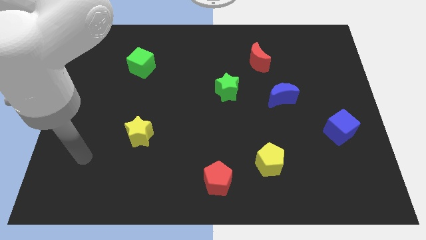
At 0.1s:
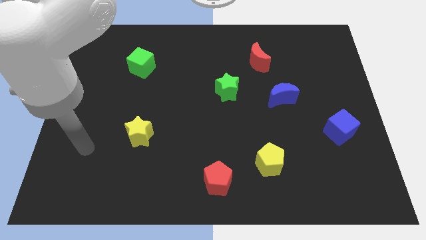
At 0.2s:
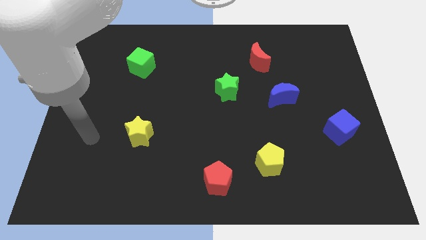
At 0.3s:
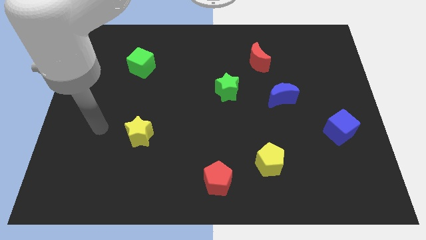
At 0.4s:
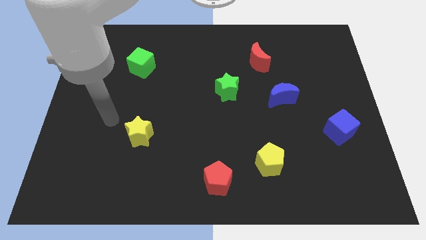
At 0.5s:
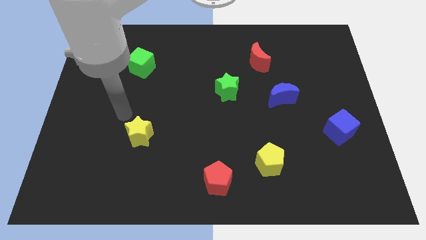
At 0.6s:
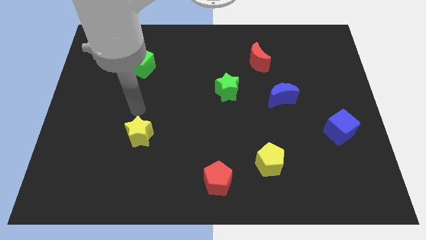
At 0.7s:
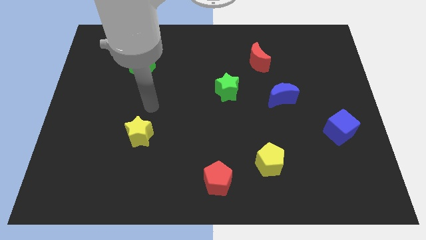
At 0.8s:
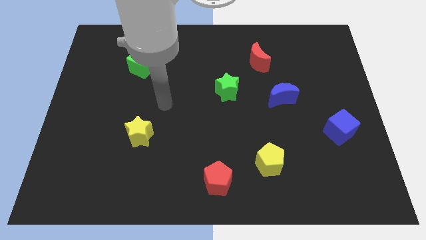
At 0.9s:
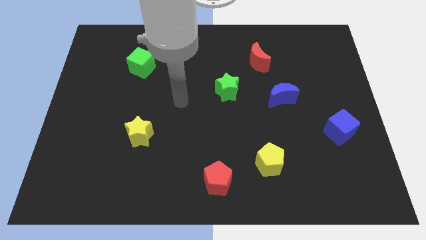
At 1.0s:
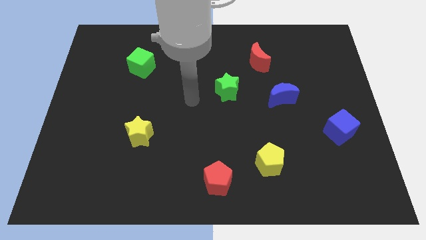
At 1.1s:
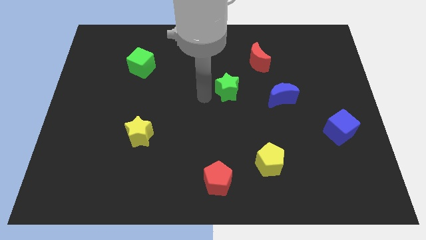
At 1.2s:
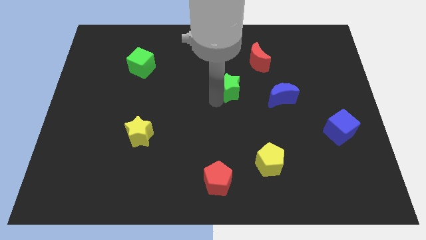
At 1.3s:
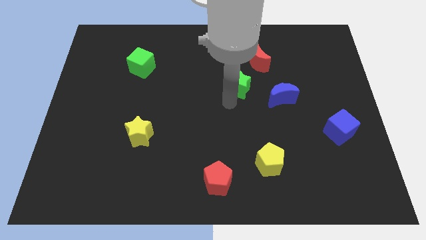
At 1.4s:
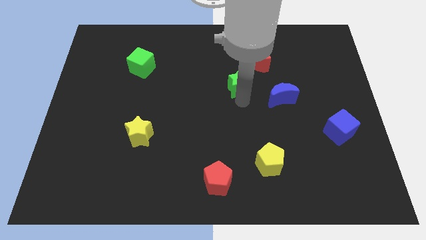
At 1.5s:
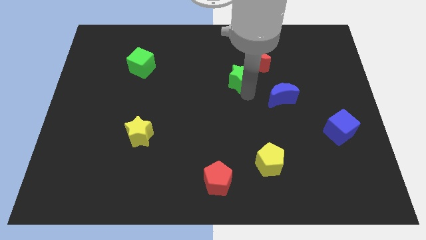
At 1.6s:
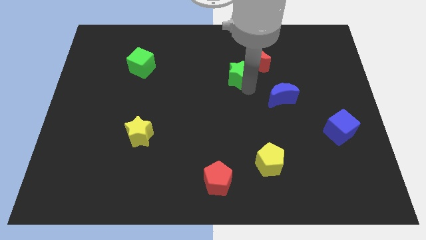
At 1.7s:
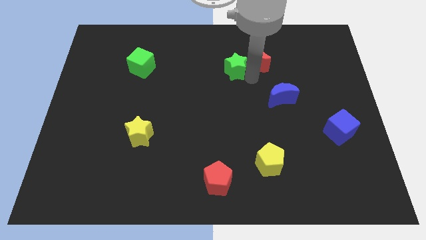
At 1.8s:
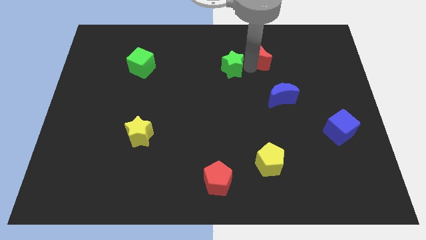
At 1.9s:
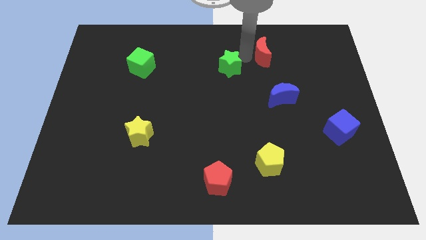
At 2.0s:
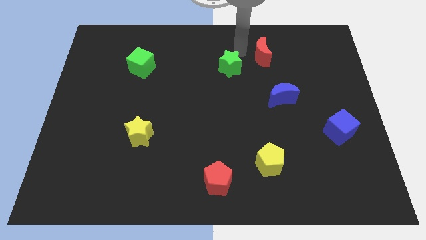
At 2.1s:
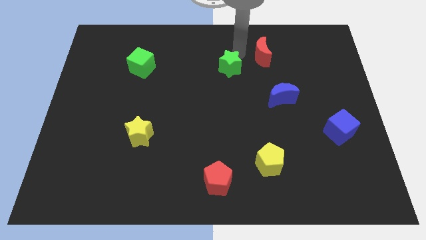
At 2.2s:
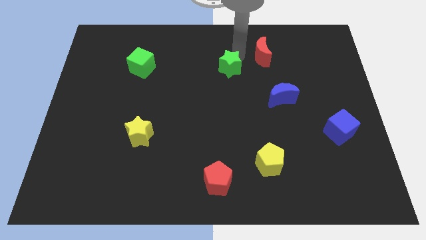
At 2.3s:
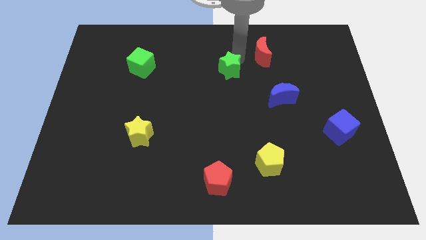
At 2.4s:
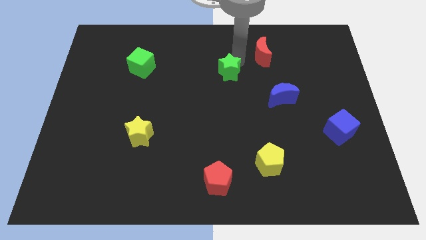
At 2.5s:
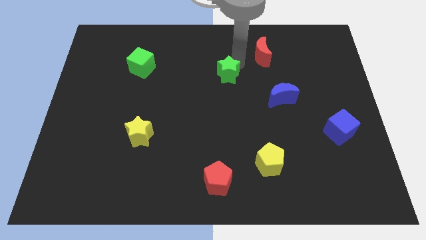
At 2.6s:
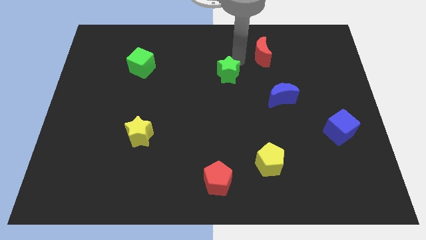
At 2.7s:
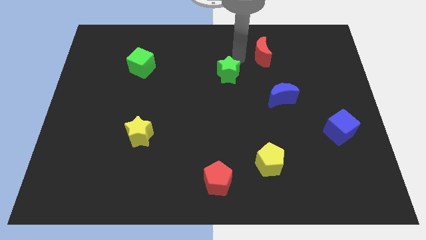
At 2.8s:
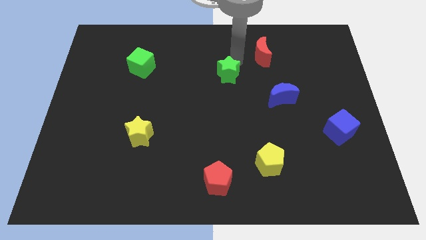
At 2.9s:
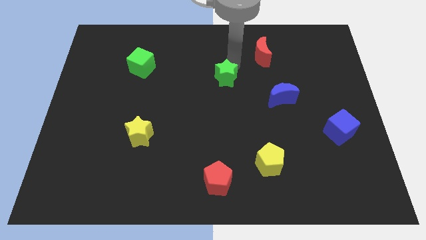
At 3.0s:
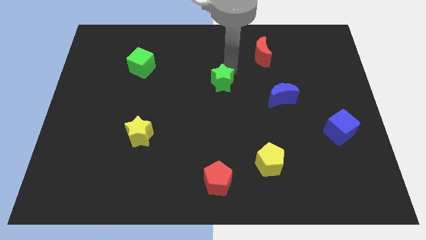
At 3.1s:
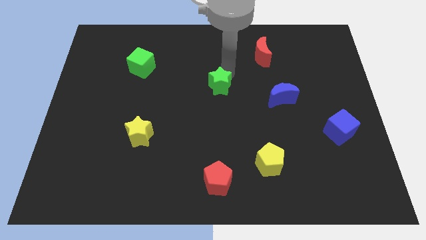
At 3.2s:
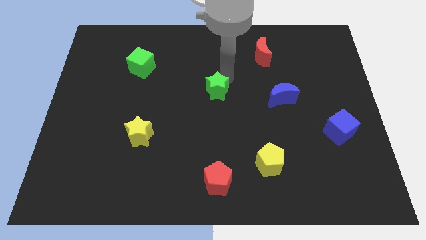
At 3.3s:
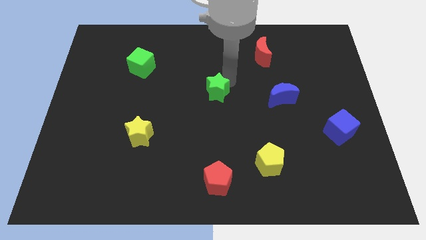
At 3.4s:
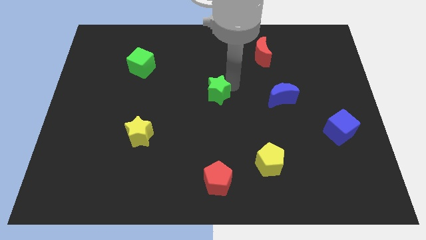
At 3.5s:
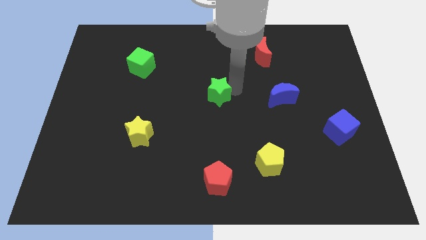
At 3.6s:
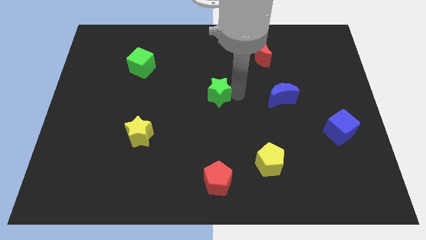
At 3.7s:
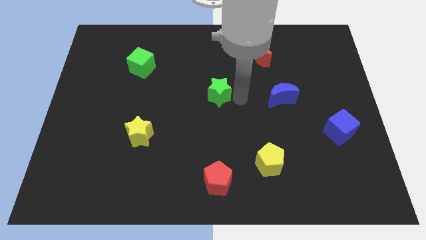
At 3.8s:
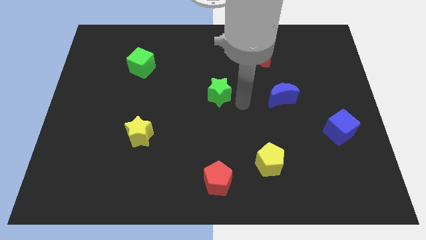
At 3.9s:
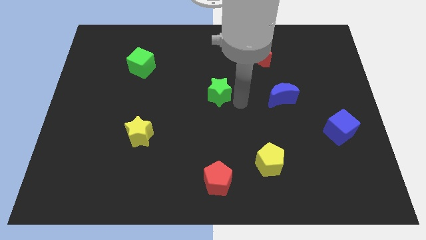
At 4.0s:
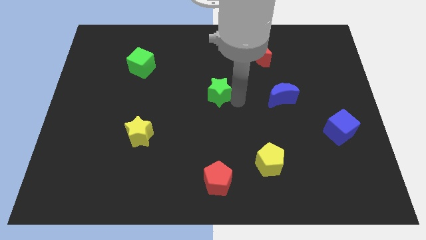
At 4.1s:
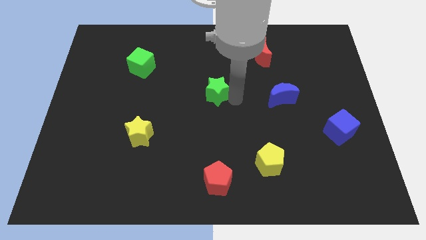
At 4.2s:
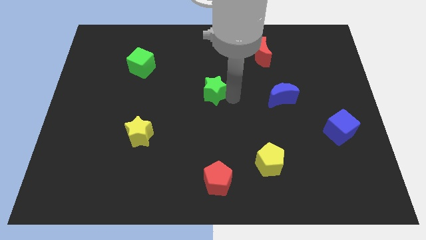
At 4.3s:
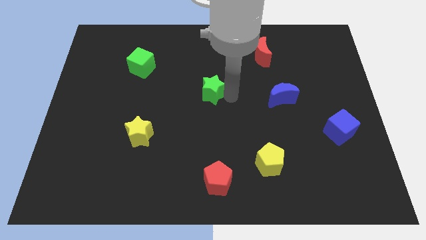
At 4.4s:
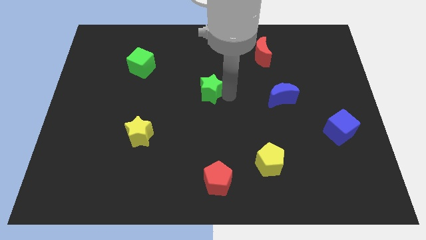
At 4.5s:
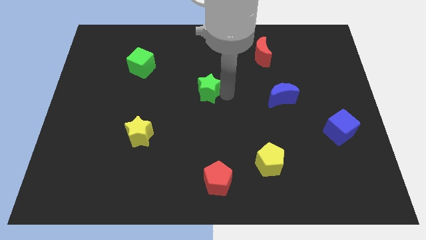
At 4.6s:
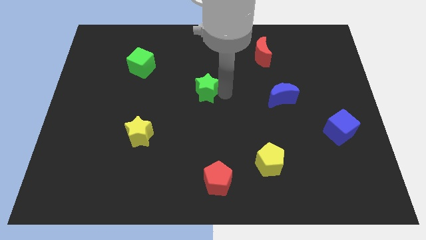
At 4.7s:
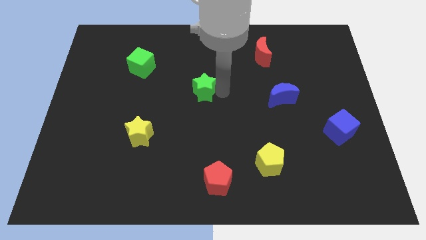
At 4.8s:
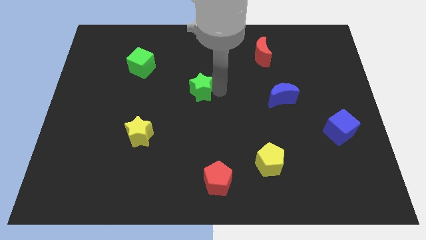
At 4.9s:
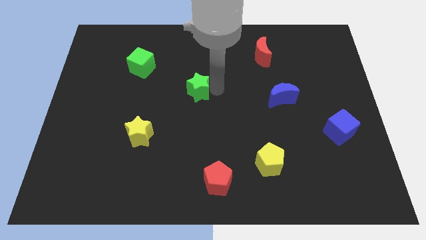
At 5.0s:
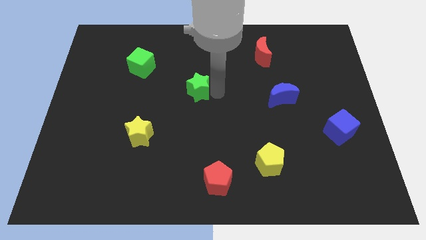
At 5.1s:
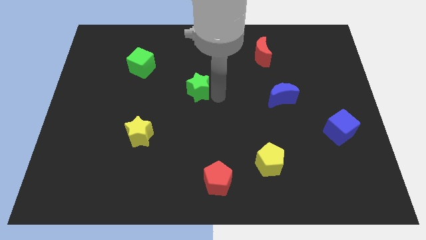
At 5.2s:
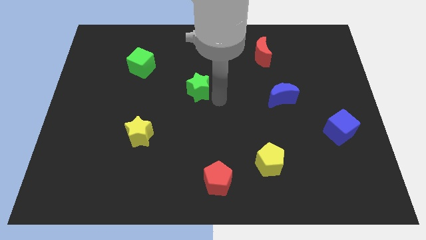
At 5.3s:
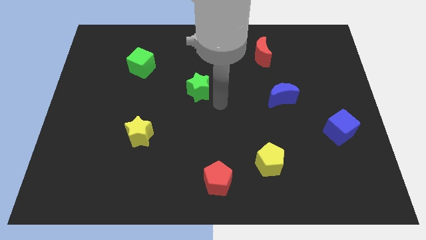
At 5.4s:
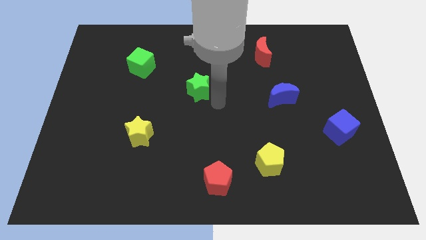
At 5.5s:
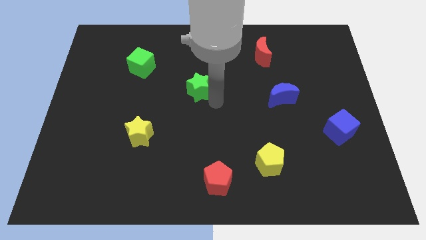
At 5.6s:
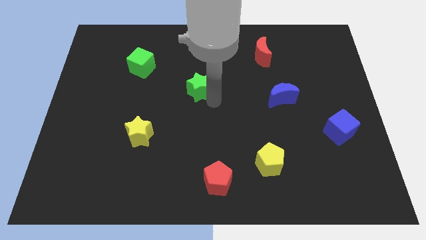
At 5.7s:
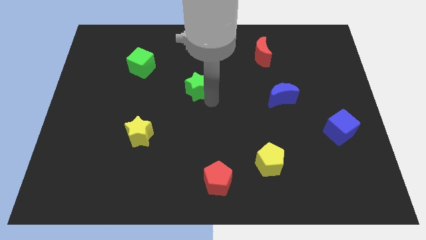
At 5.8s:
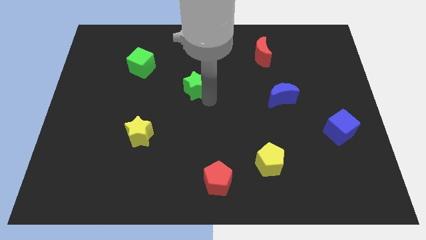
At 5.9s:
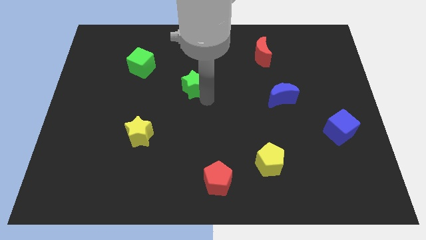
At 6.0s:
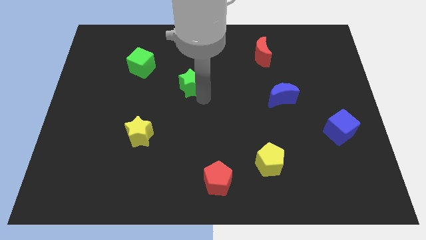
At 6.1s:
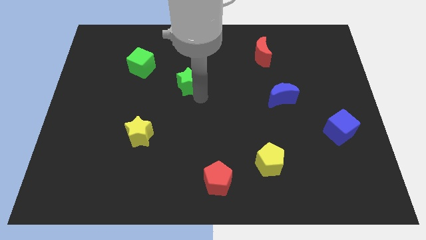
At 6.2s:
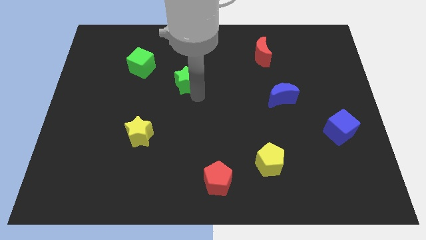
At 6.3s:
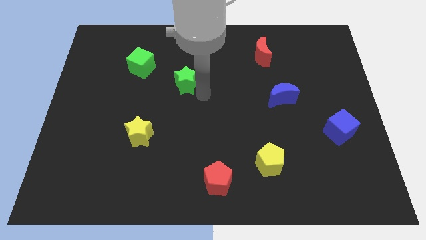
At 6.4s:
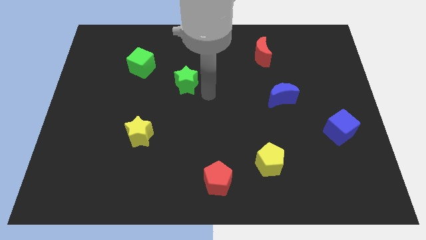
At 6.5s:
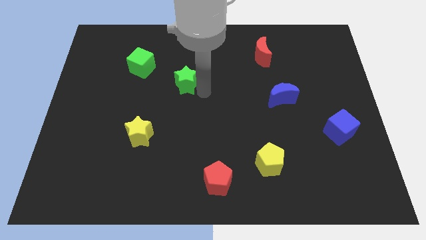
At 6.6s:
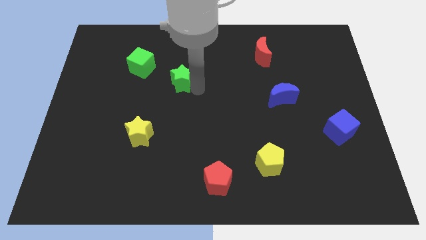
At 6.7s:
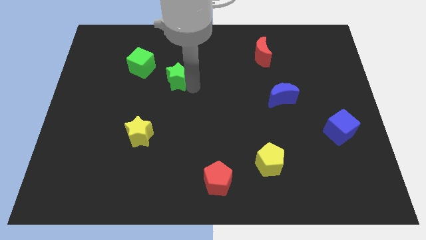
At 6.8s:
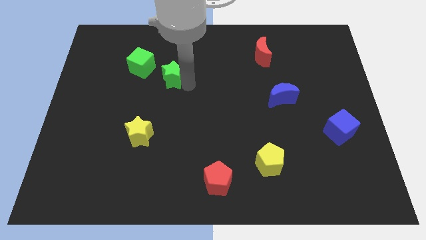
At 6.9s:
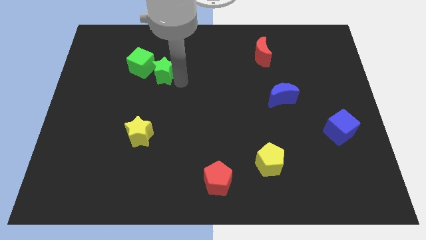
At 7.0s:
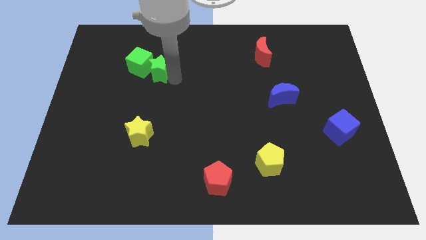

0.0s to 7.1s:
push the green star towards the green cube

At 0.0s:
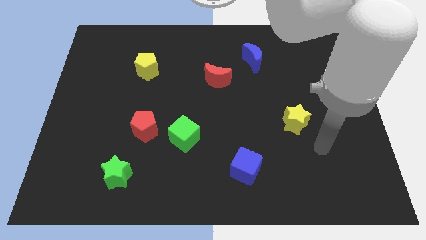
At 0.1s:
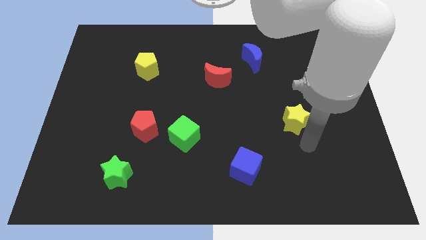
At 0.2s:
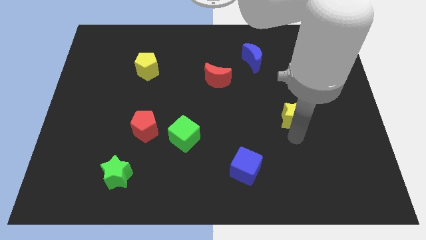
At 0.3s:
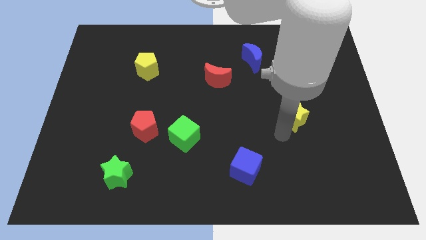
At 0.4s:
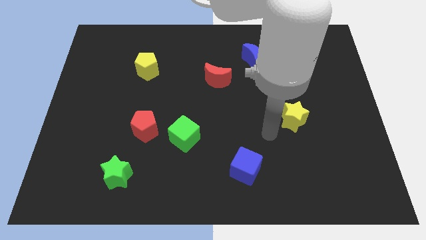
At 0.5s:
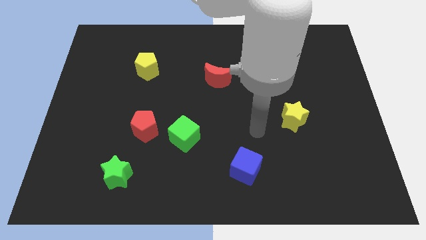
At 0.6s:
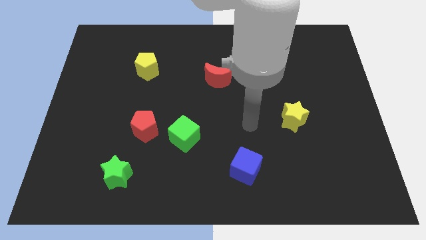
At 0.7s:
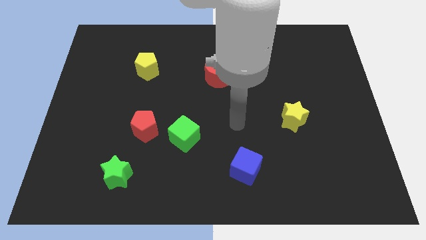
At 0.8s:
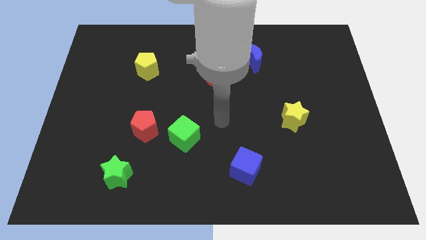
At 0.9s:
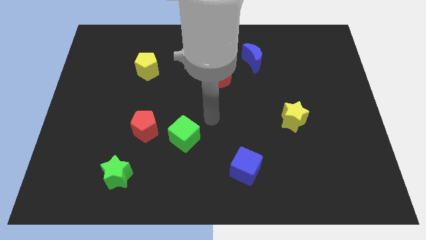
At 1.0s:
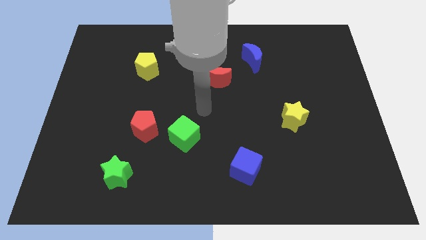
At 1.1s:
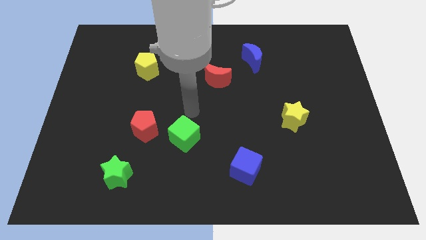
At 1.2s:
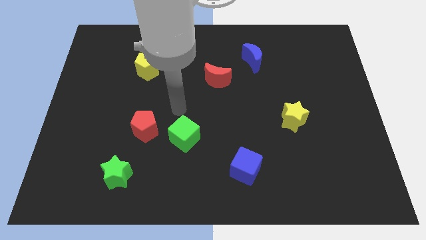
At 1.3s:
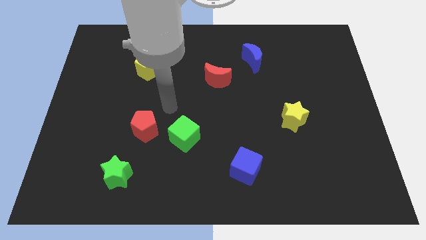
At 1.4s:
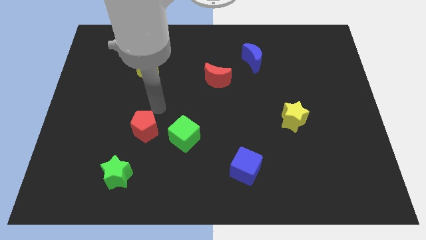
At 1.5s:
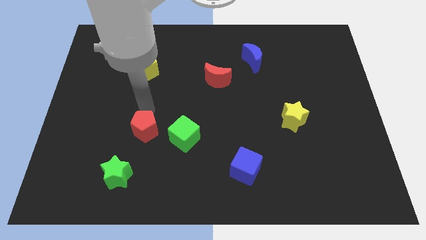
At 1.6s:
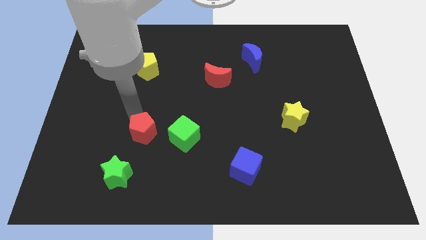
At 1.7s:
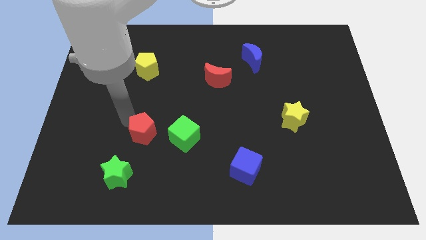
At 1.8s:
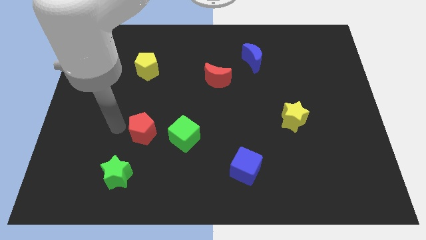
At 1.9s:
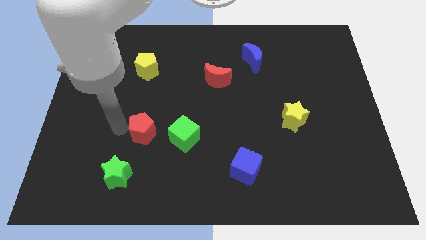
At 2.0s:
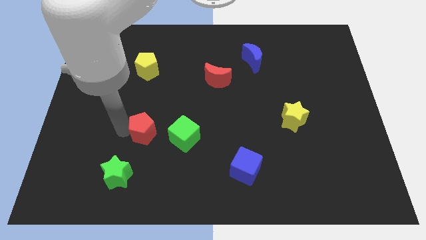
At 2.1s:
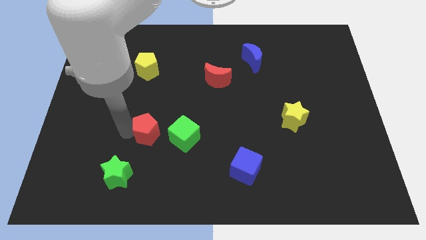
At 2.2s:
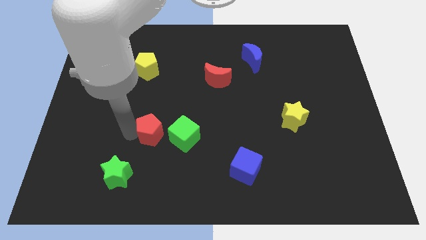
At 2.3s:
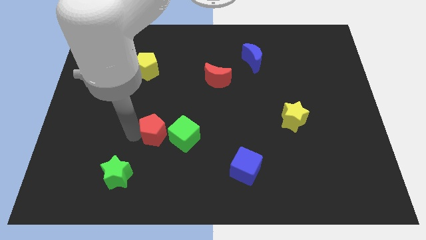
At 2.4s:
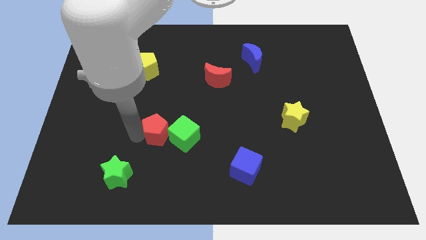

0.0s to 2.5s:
put the red pentagon close to the green cube
